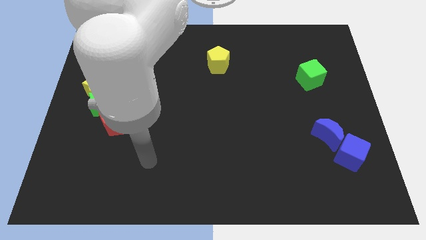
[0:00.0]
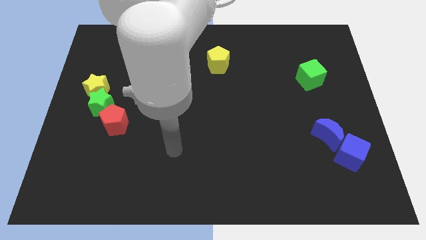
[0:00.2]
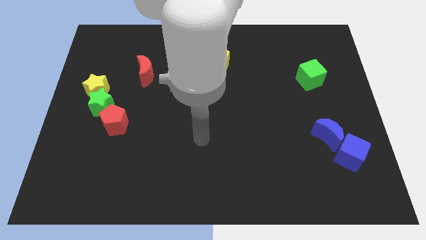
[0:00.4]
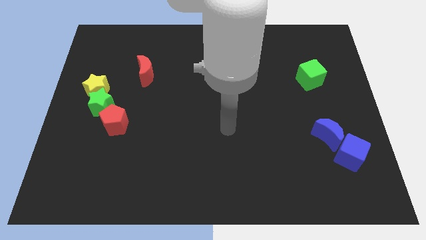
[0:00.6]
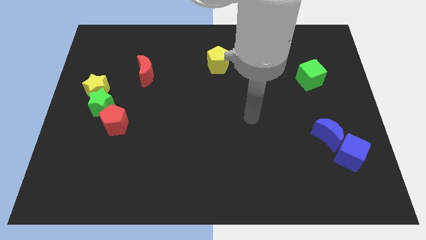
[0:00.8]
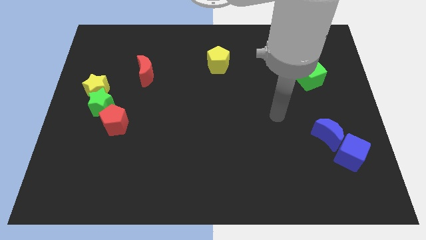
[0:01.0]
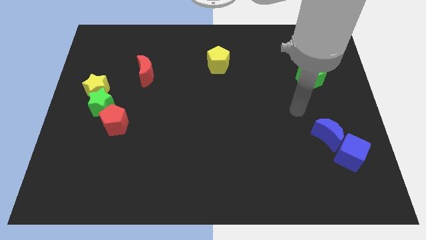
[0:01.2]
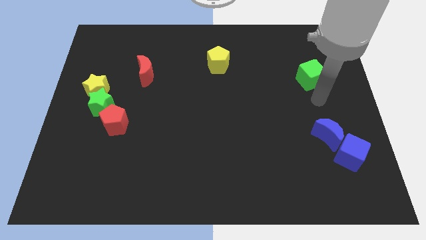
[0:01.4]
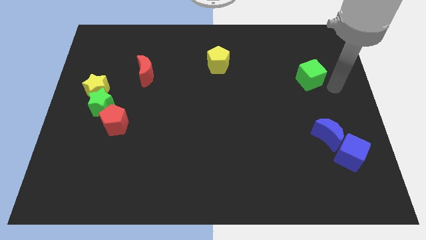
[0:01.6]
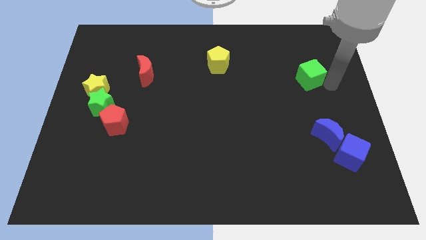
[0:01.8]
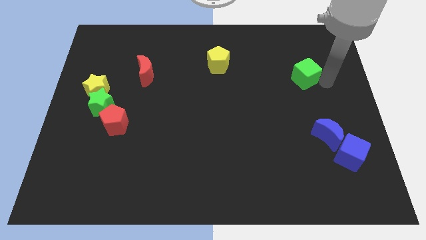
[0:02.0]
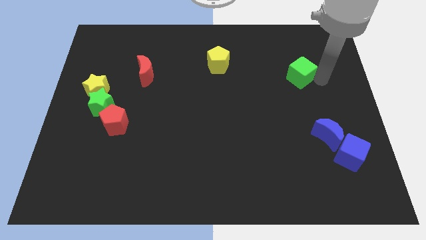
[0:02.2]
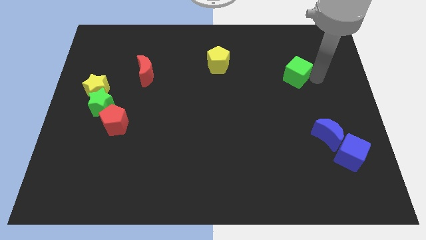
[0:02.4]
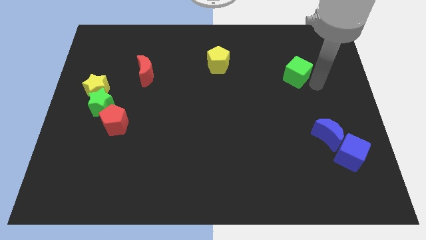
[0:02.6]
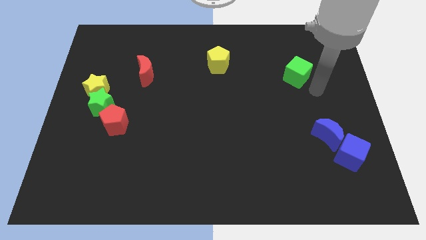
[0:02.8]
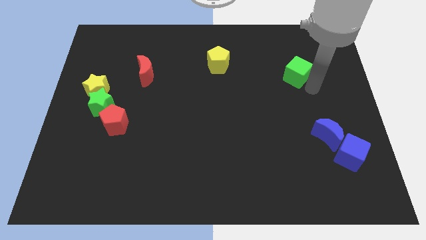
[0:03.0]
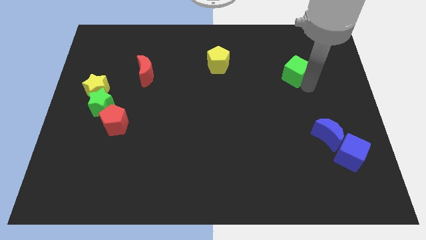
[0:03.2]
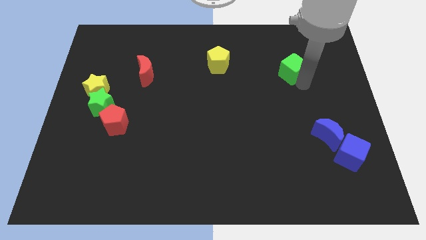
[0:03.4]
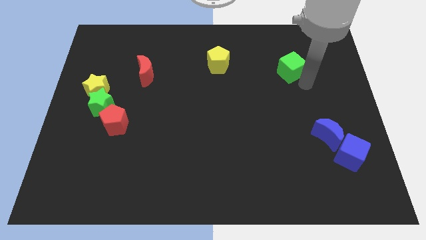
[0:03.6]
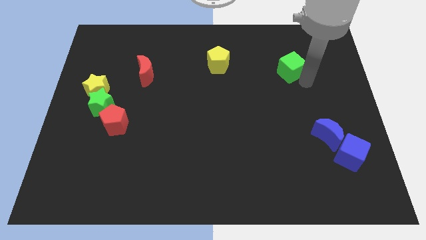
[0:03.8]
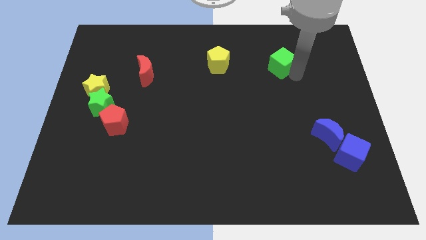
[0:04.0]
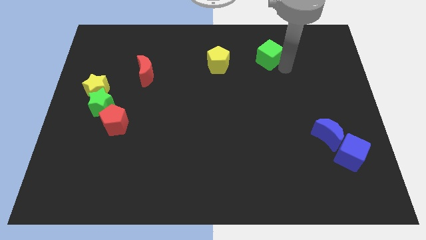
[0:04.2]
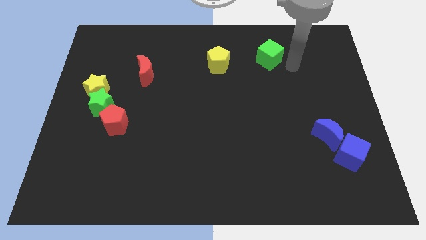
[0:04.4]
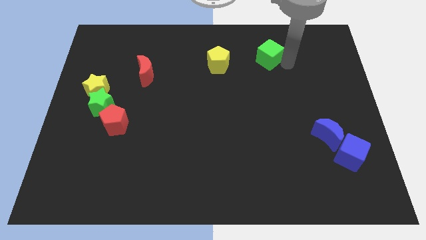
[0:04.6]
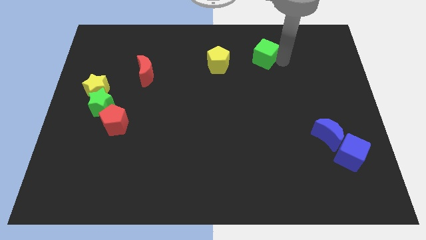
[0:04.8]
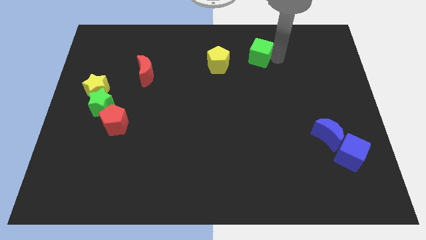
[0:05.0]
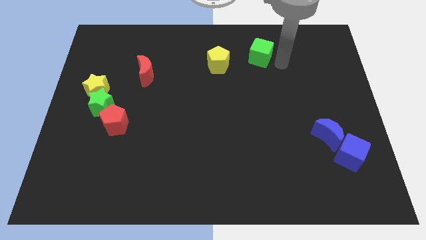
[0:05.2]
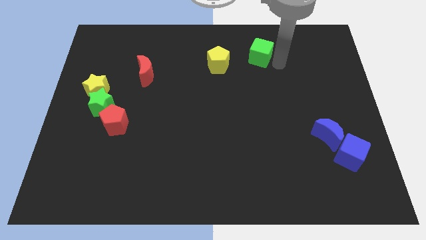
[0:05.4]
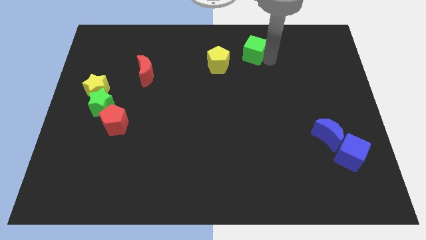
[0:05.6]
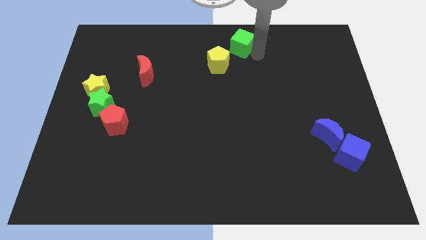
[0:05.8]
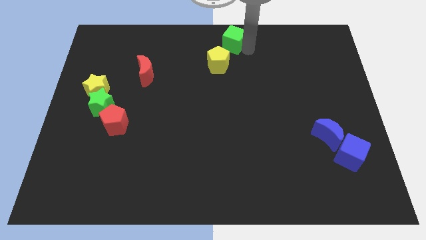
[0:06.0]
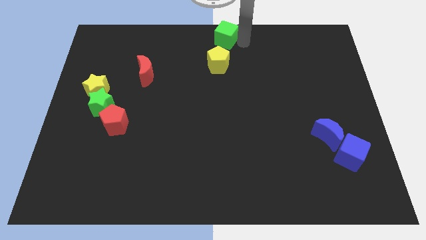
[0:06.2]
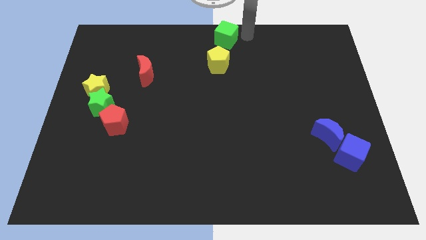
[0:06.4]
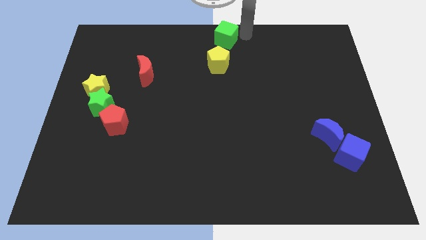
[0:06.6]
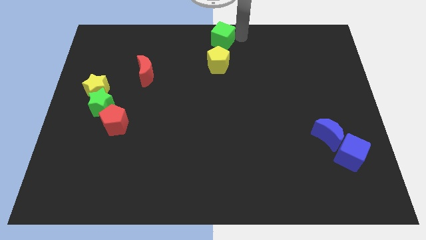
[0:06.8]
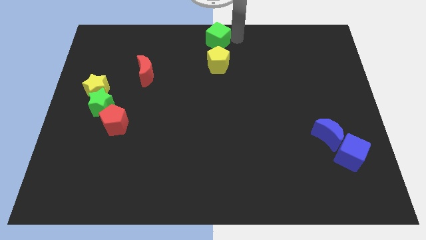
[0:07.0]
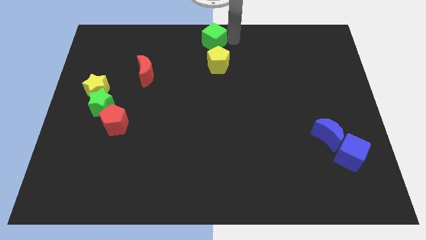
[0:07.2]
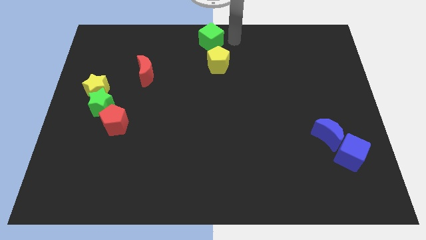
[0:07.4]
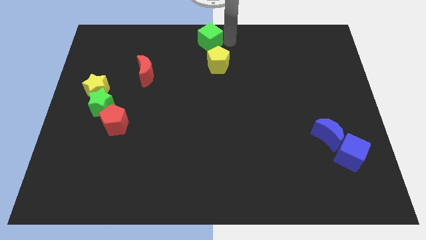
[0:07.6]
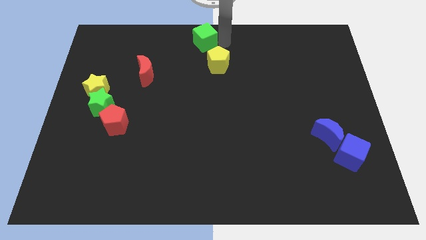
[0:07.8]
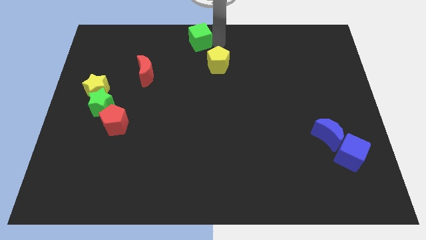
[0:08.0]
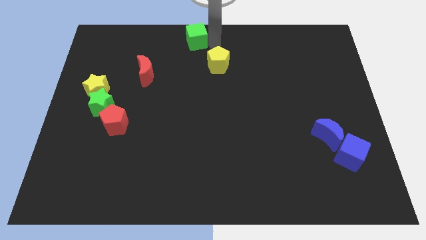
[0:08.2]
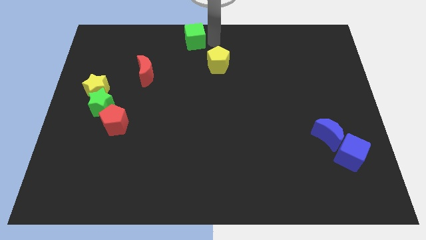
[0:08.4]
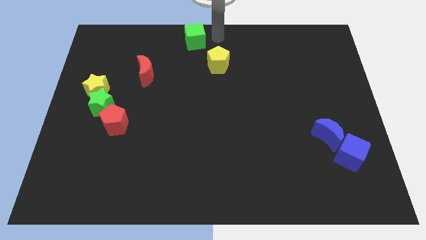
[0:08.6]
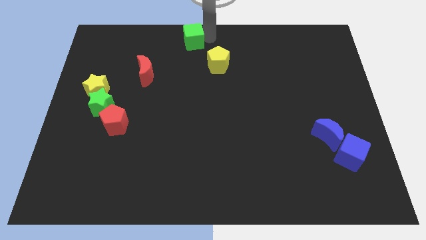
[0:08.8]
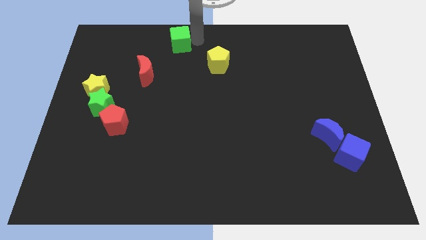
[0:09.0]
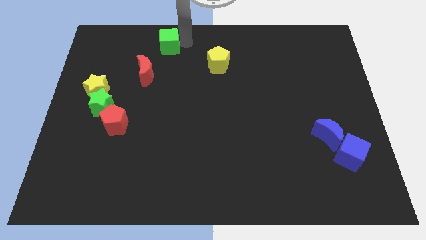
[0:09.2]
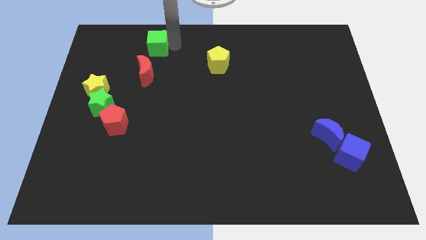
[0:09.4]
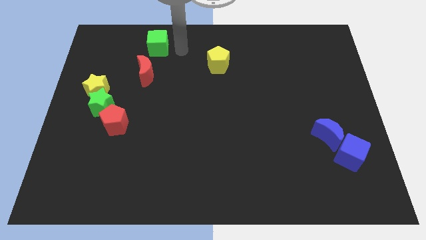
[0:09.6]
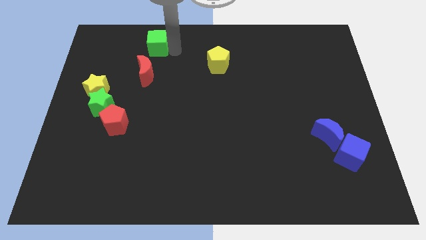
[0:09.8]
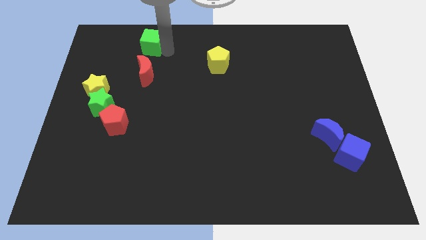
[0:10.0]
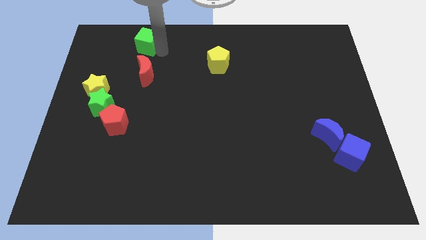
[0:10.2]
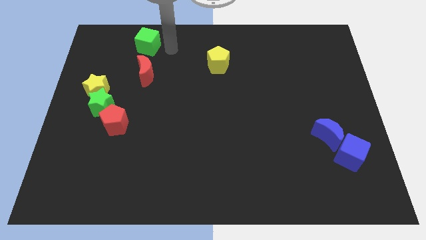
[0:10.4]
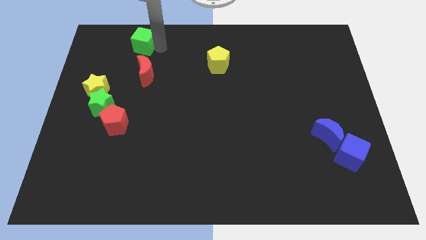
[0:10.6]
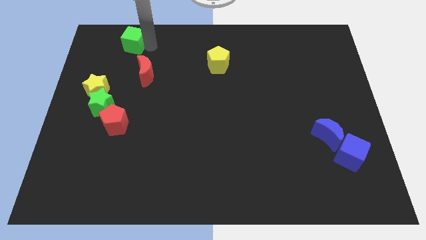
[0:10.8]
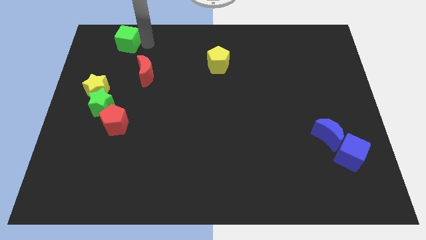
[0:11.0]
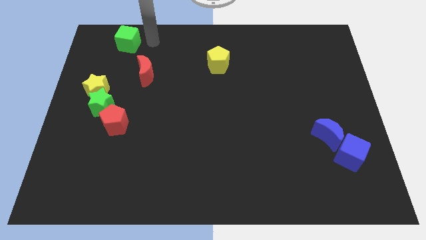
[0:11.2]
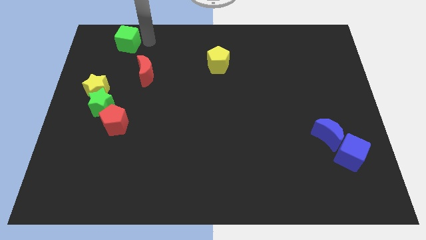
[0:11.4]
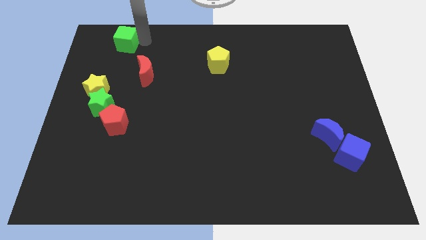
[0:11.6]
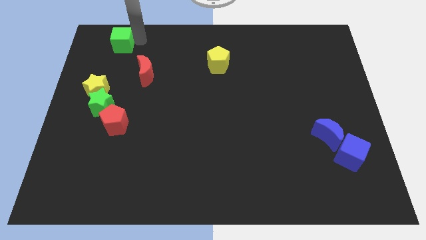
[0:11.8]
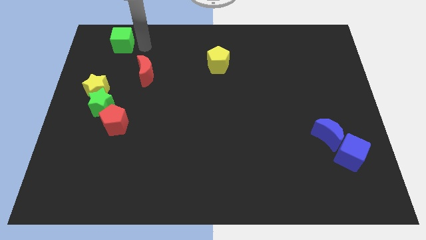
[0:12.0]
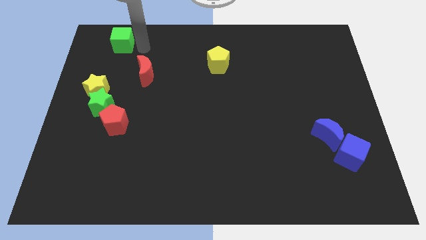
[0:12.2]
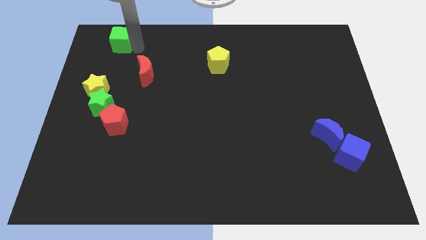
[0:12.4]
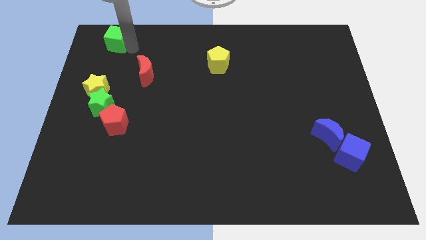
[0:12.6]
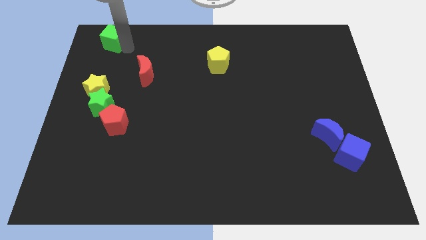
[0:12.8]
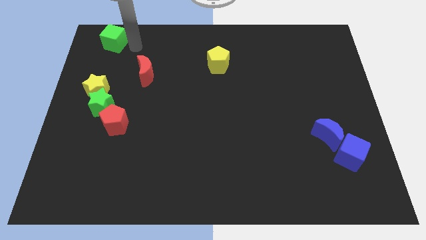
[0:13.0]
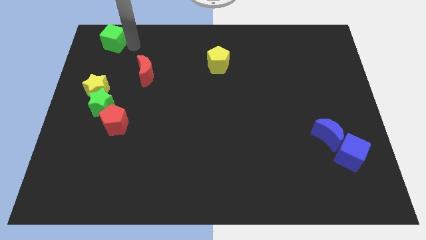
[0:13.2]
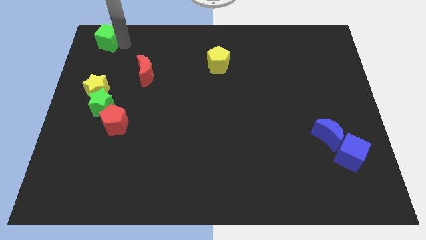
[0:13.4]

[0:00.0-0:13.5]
slide the green cube to the upper left corner
